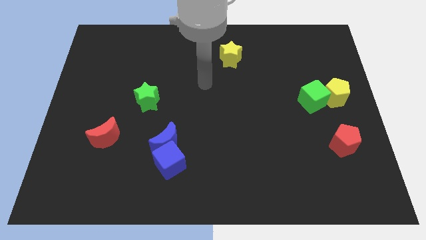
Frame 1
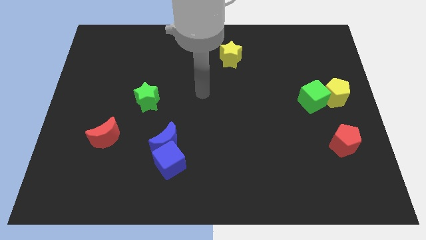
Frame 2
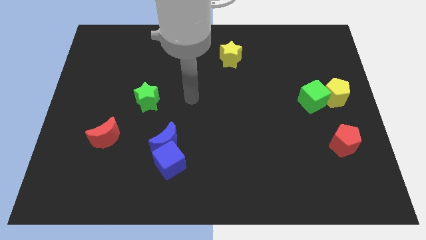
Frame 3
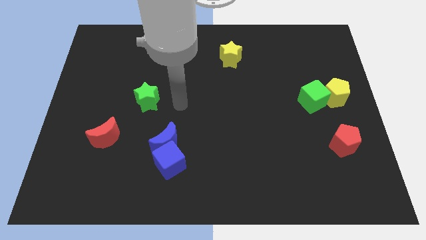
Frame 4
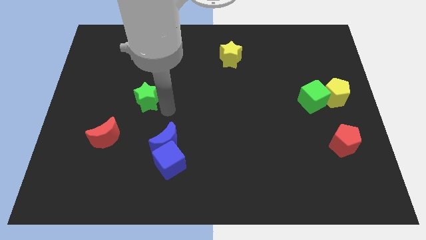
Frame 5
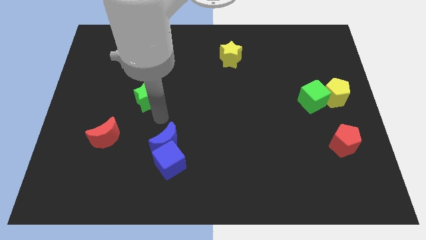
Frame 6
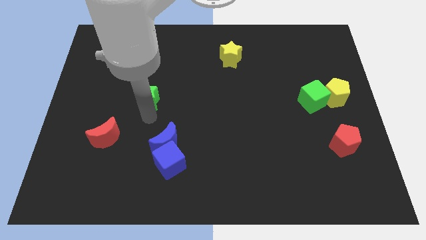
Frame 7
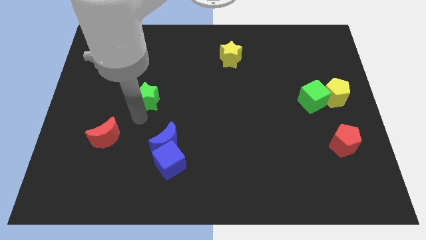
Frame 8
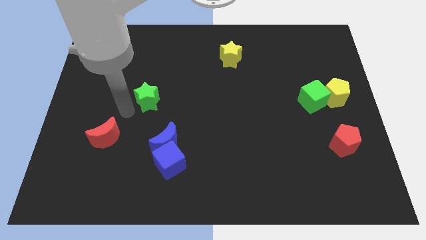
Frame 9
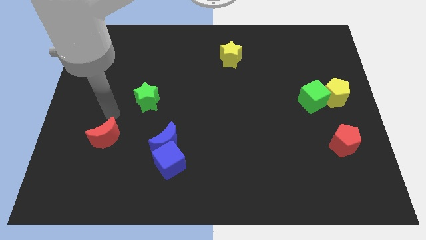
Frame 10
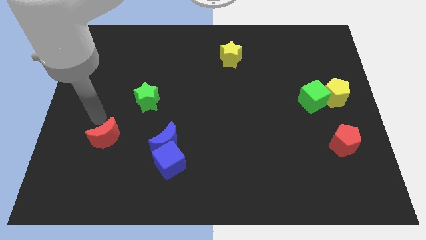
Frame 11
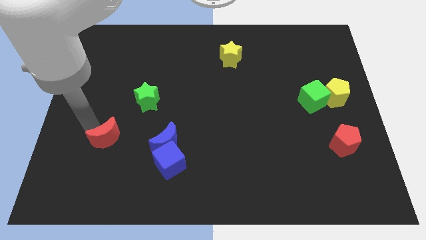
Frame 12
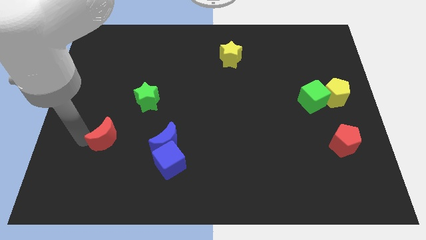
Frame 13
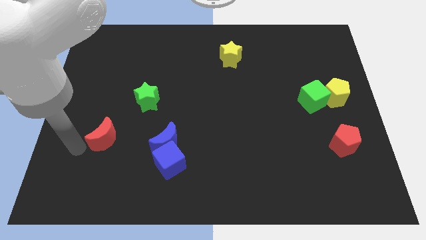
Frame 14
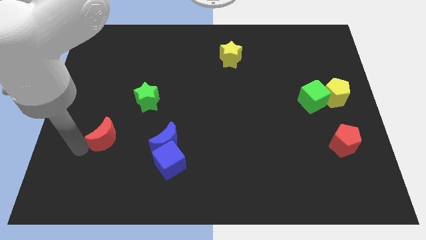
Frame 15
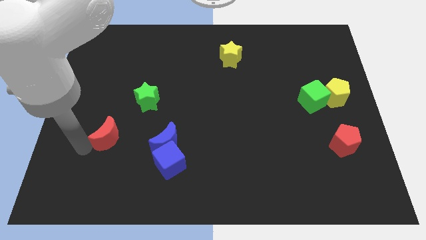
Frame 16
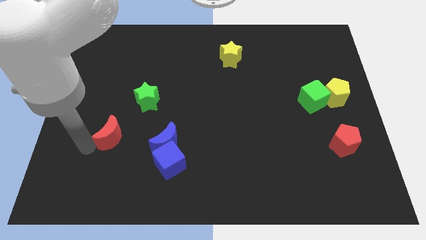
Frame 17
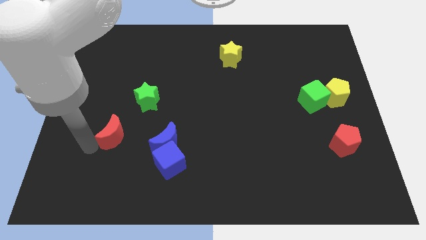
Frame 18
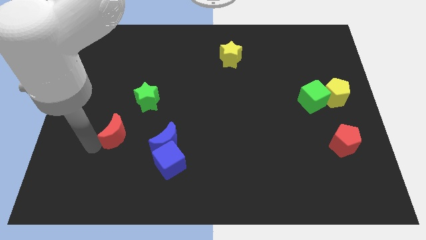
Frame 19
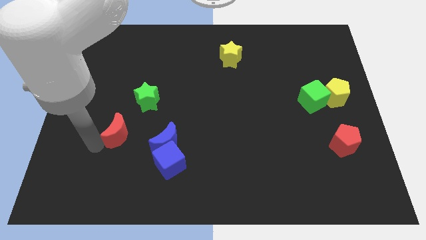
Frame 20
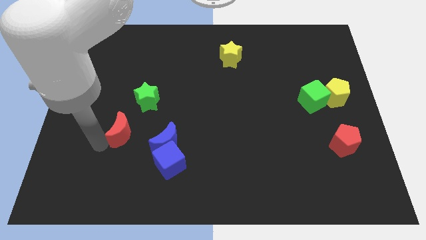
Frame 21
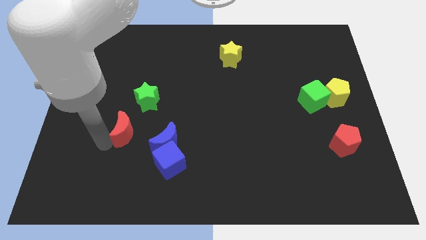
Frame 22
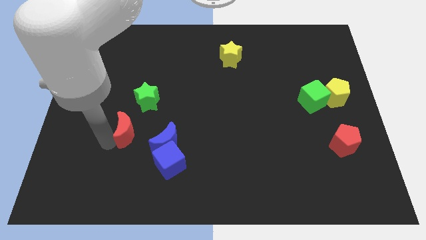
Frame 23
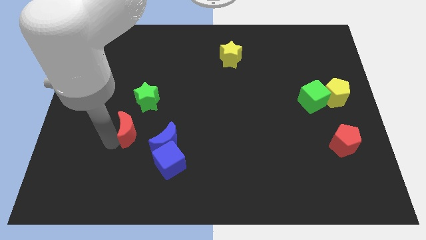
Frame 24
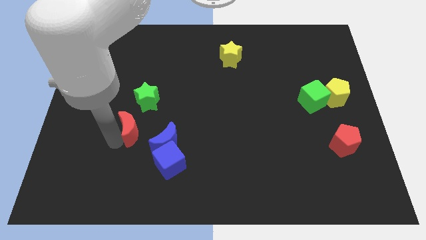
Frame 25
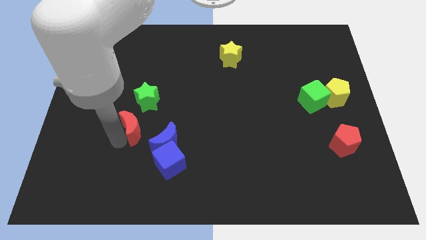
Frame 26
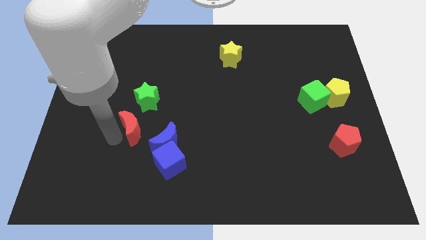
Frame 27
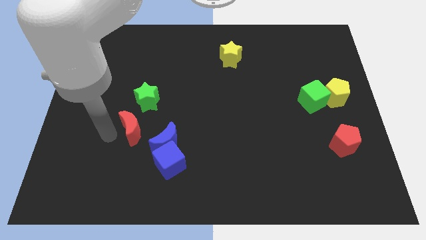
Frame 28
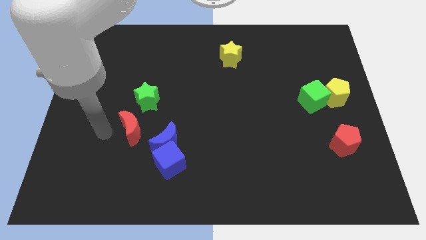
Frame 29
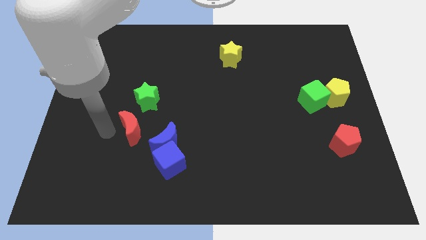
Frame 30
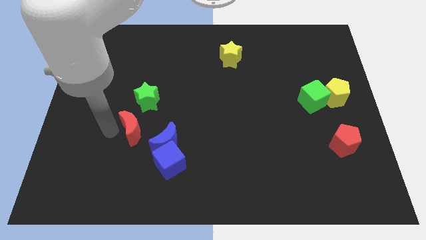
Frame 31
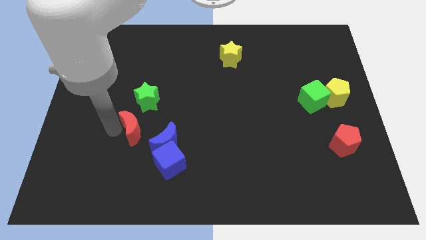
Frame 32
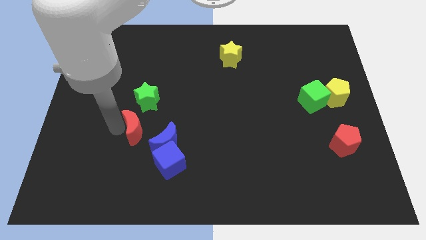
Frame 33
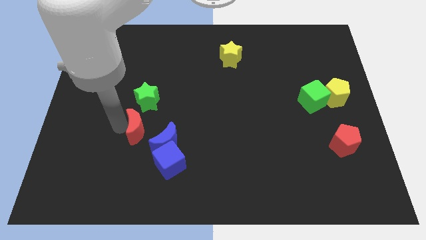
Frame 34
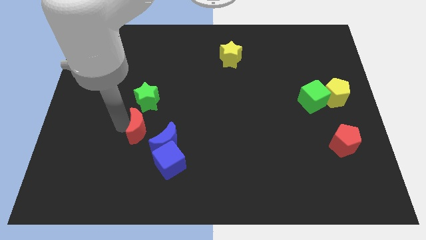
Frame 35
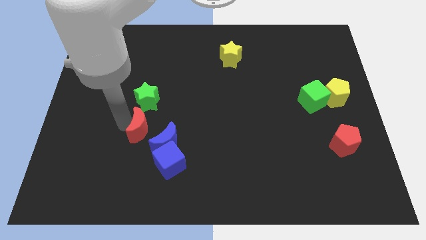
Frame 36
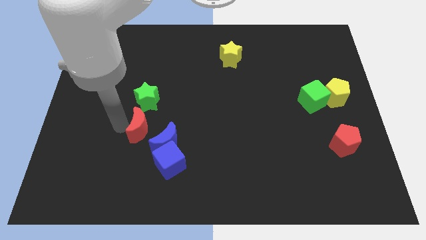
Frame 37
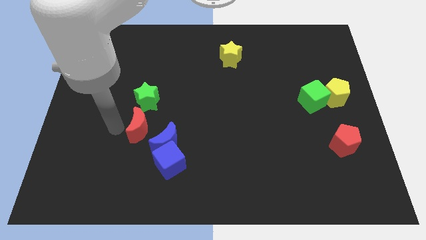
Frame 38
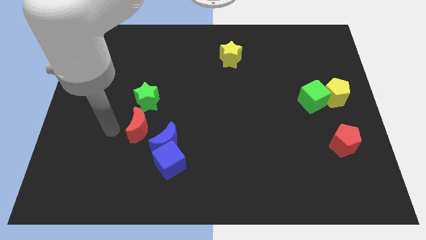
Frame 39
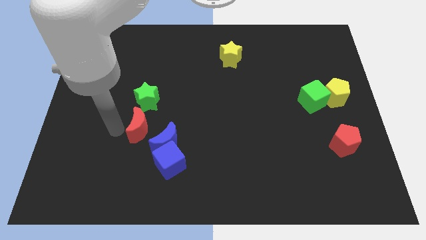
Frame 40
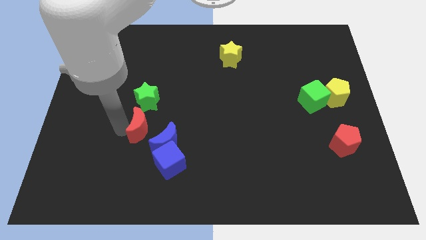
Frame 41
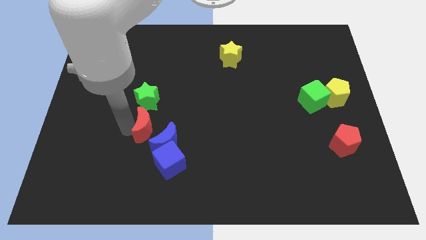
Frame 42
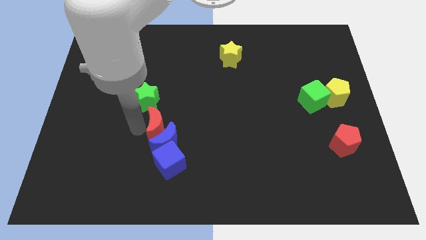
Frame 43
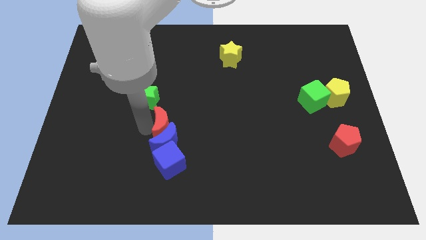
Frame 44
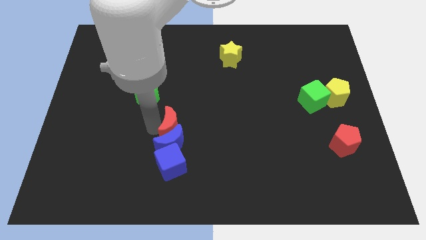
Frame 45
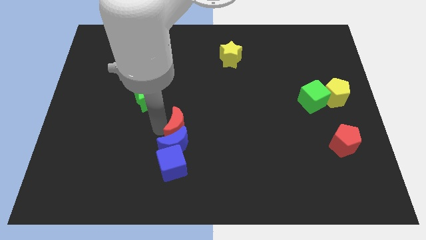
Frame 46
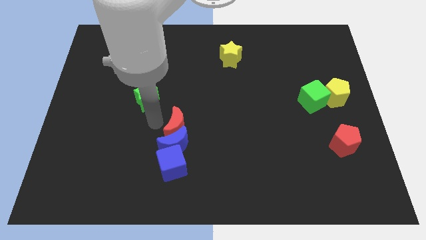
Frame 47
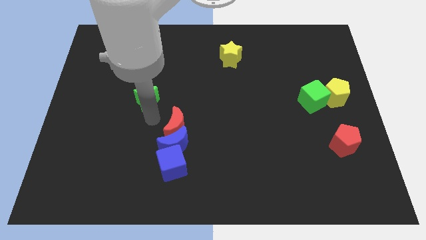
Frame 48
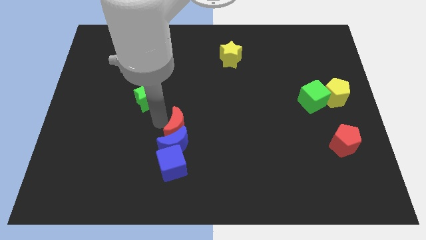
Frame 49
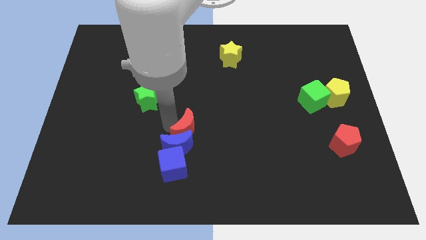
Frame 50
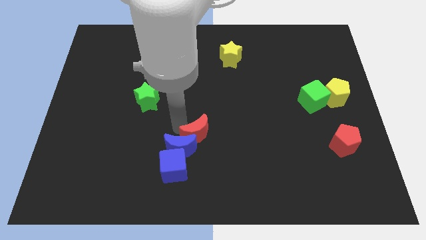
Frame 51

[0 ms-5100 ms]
put the red moon to the right of the blue moon

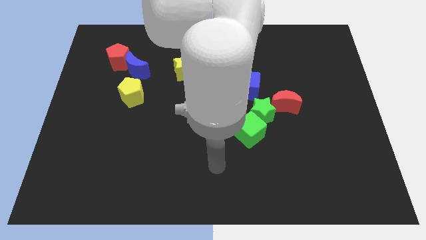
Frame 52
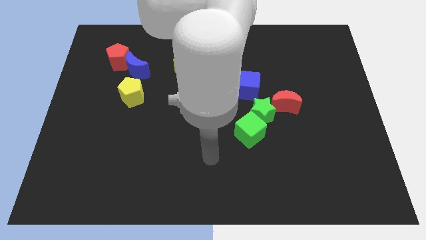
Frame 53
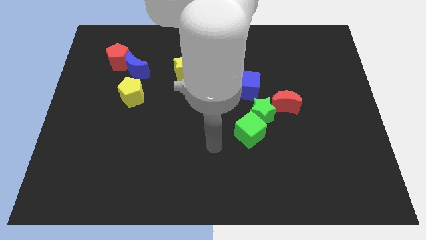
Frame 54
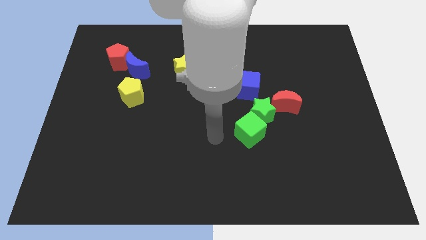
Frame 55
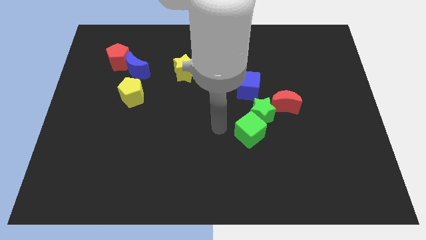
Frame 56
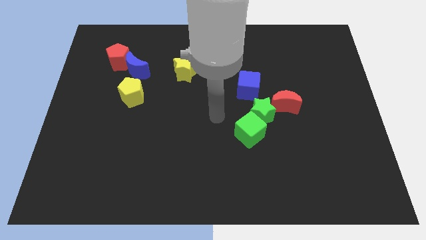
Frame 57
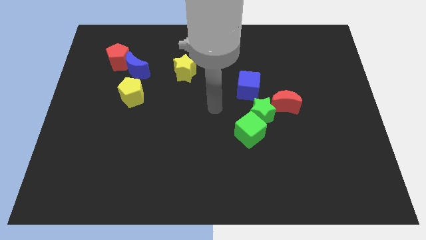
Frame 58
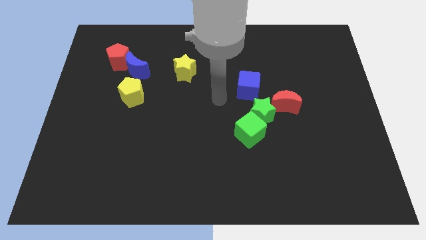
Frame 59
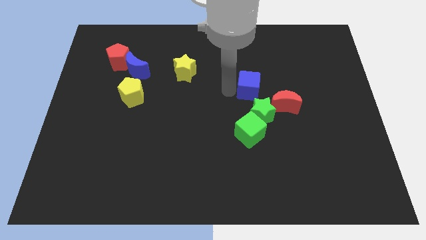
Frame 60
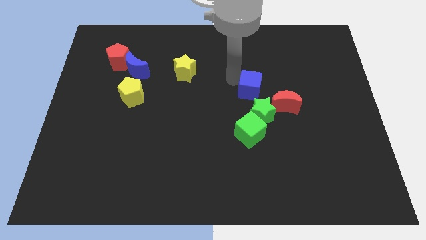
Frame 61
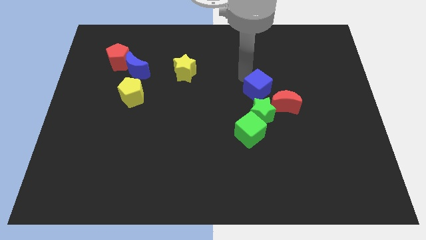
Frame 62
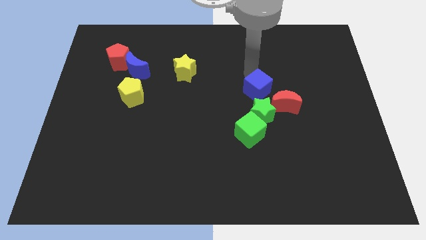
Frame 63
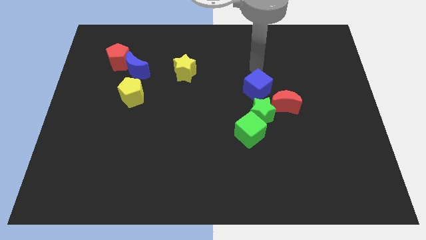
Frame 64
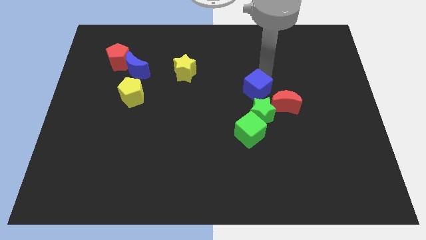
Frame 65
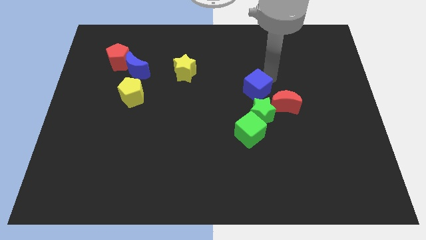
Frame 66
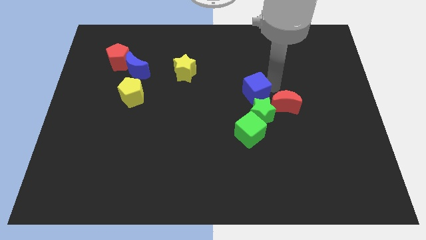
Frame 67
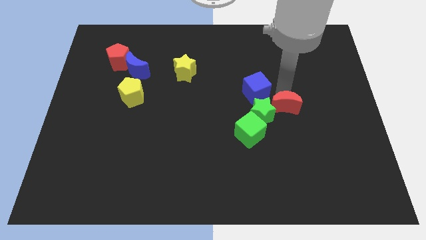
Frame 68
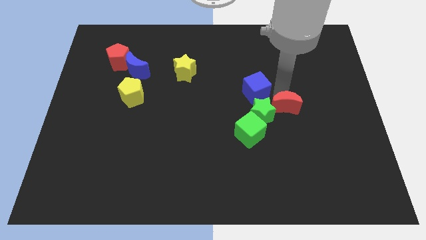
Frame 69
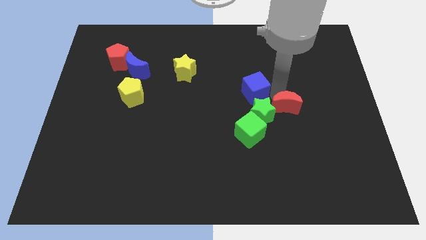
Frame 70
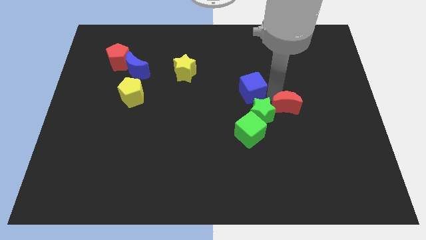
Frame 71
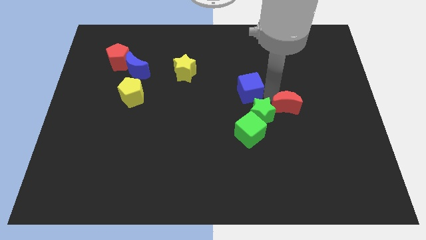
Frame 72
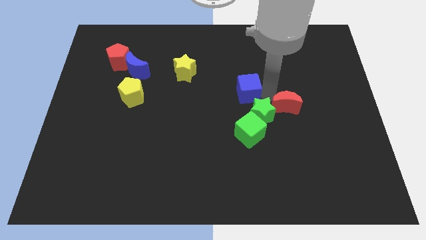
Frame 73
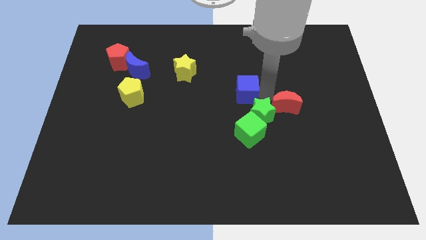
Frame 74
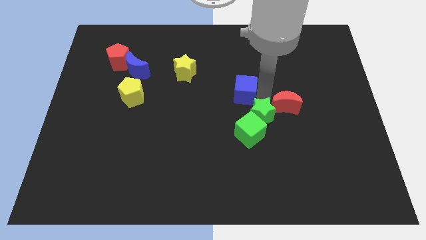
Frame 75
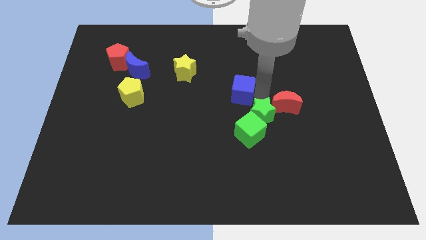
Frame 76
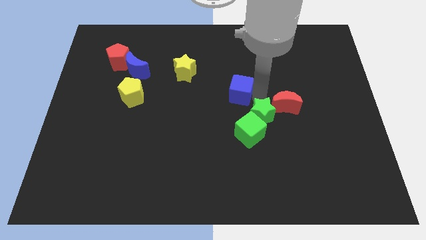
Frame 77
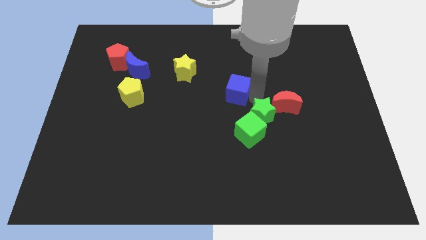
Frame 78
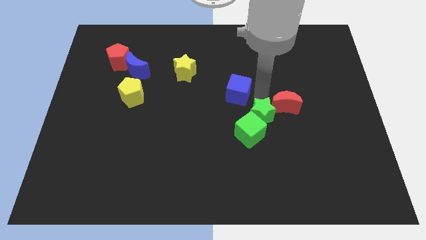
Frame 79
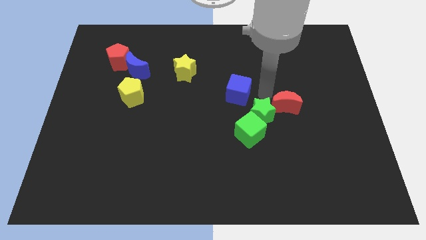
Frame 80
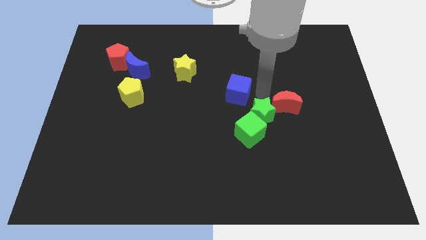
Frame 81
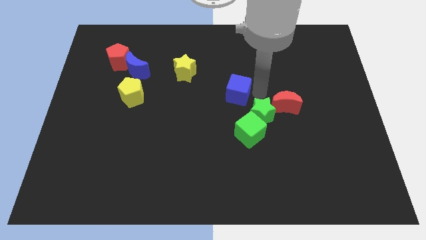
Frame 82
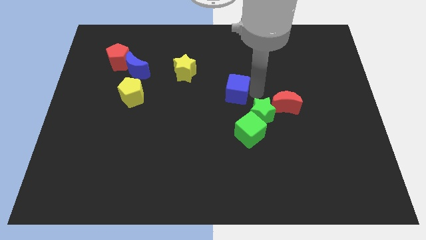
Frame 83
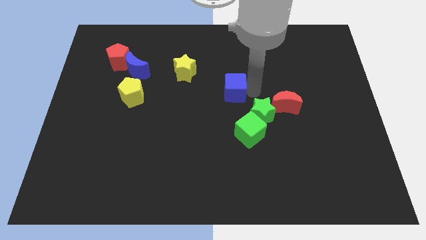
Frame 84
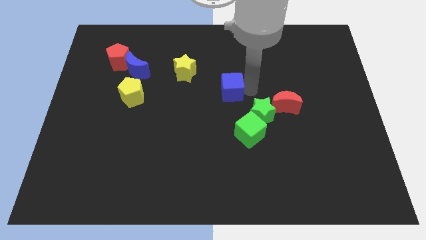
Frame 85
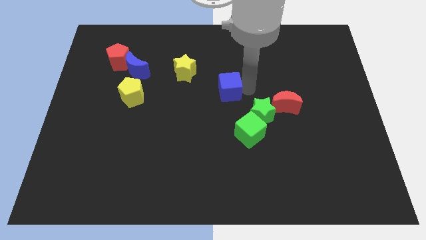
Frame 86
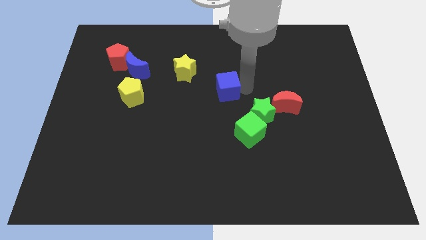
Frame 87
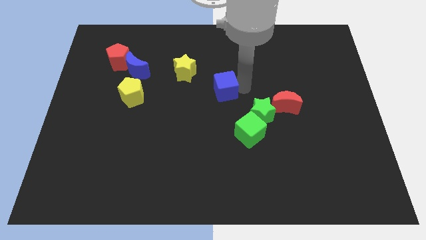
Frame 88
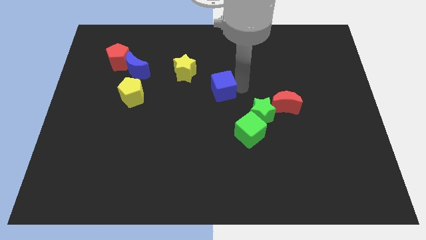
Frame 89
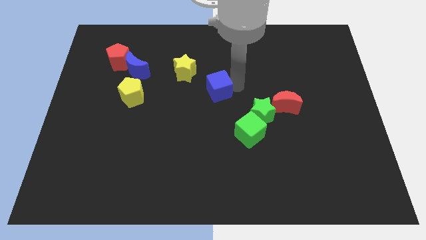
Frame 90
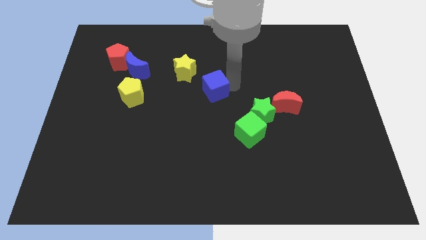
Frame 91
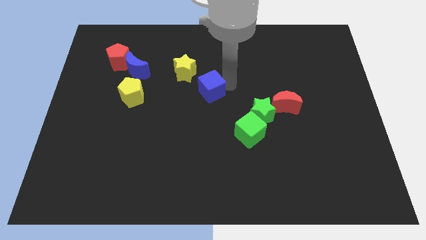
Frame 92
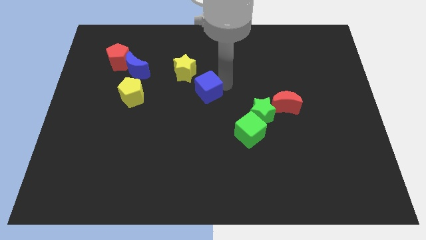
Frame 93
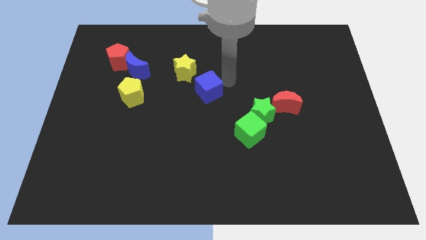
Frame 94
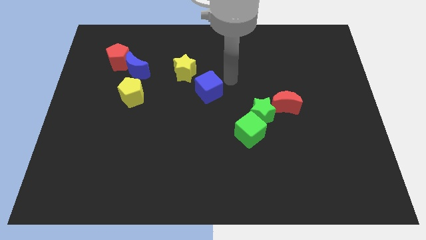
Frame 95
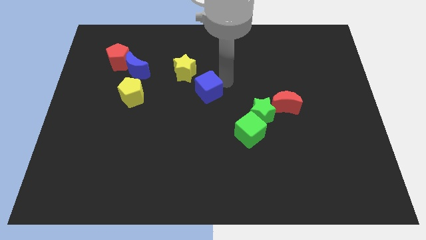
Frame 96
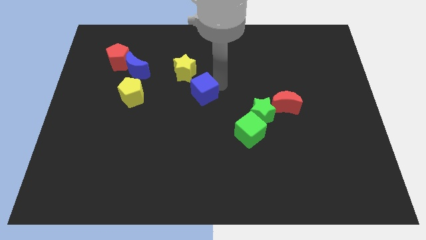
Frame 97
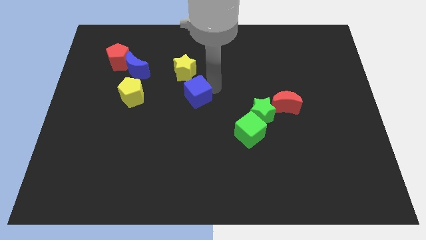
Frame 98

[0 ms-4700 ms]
move the blue cube to the bottom side of the yellow star
